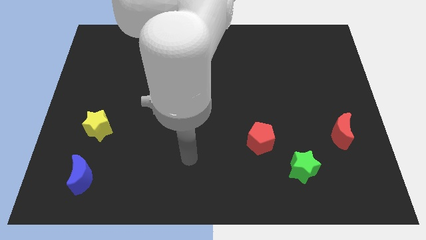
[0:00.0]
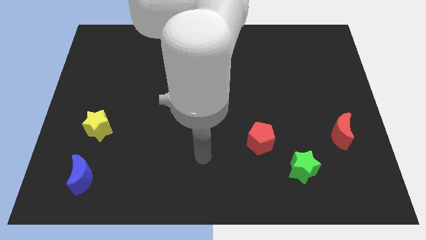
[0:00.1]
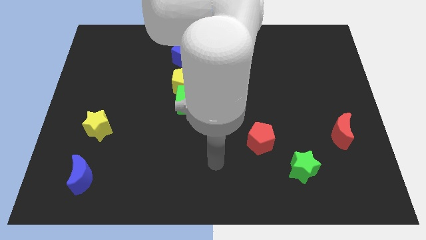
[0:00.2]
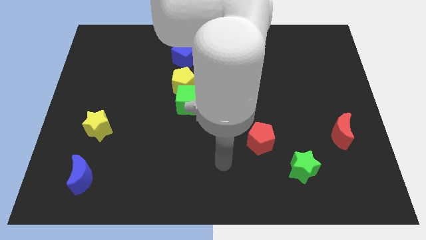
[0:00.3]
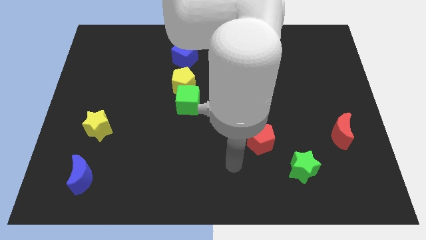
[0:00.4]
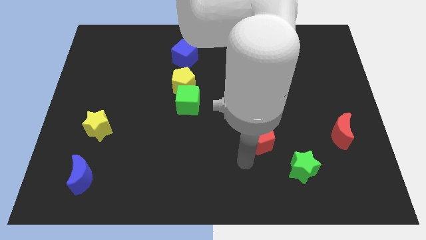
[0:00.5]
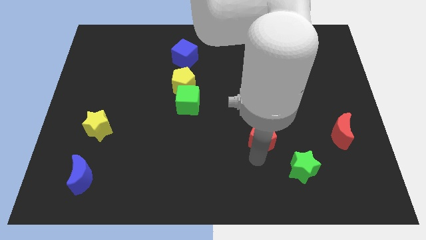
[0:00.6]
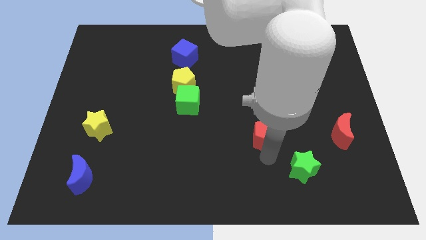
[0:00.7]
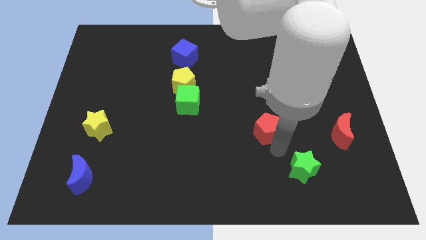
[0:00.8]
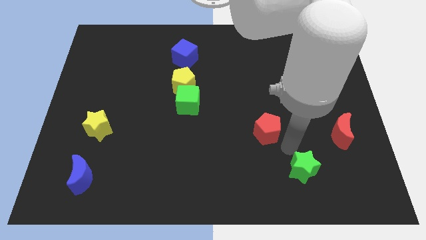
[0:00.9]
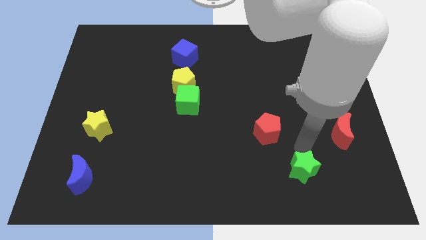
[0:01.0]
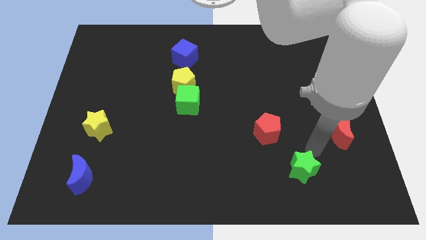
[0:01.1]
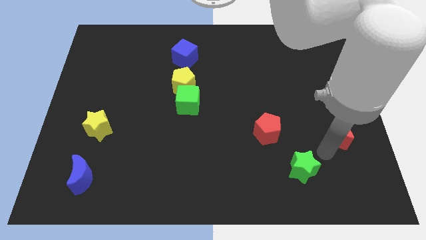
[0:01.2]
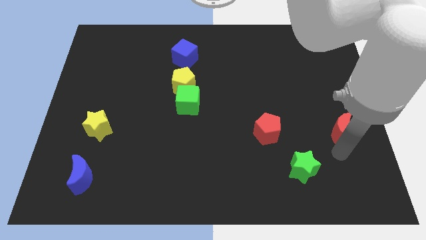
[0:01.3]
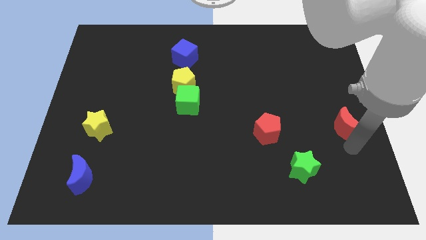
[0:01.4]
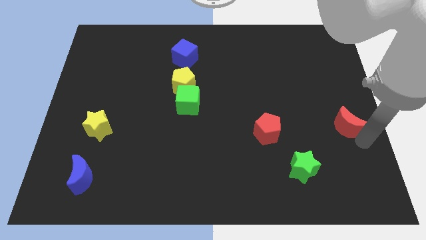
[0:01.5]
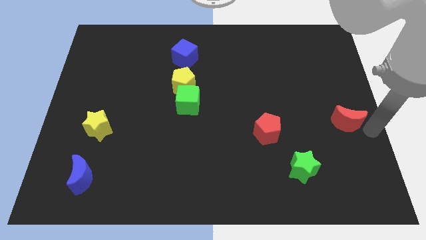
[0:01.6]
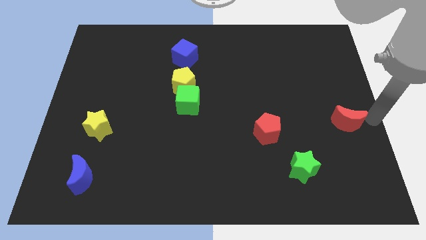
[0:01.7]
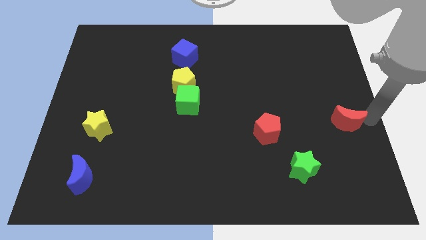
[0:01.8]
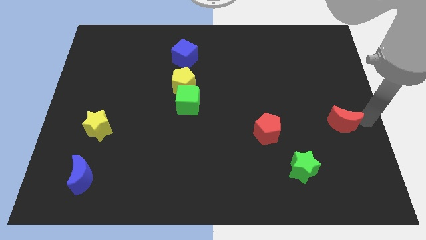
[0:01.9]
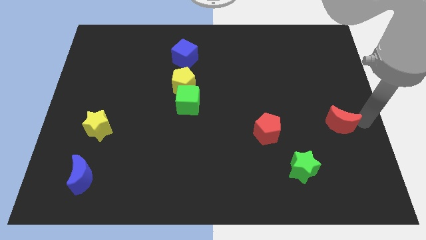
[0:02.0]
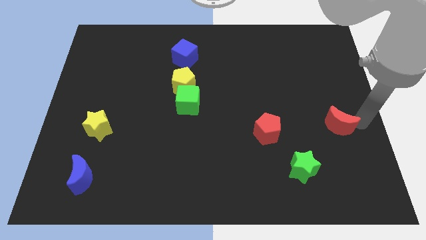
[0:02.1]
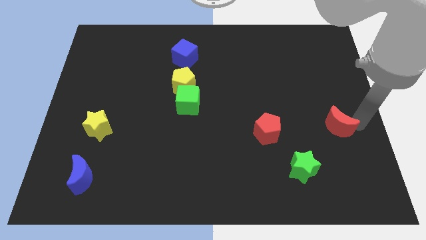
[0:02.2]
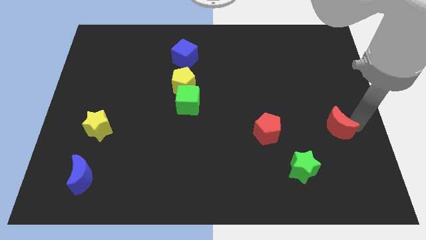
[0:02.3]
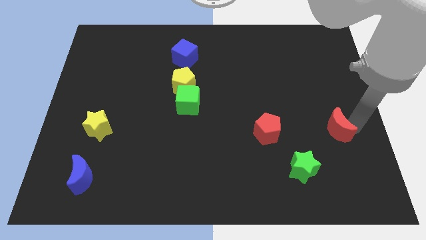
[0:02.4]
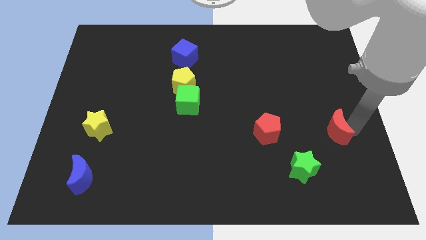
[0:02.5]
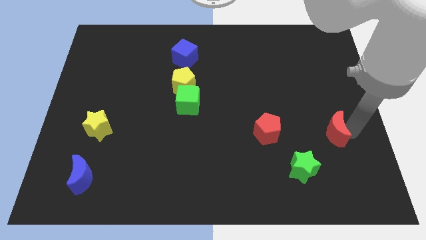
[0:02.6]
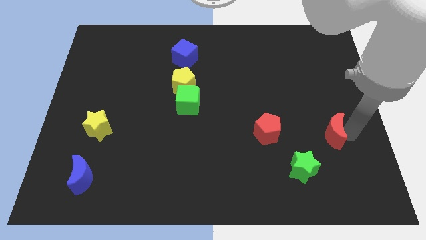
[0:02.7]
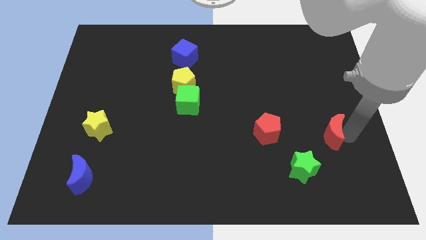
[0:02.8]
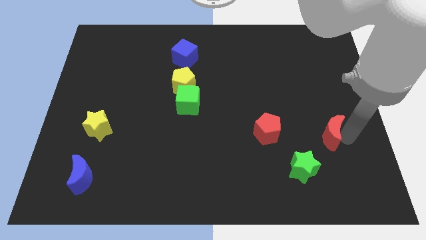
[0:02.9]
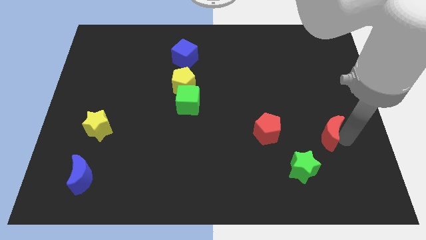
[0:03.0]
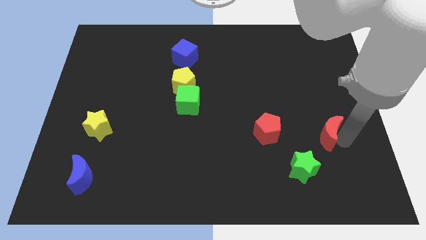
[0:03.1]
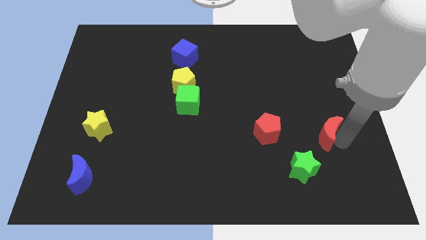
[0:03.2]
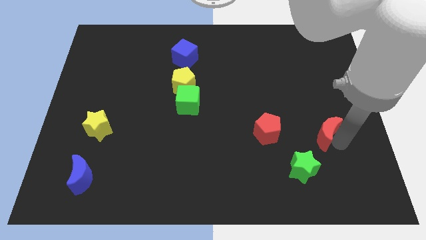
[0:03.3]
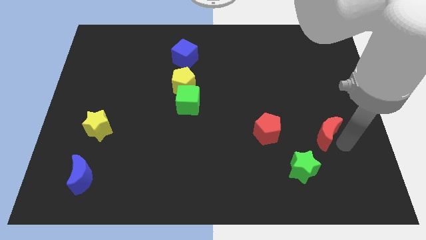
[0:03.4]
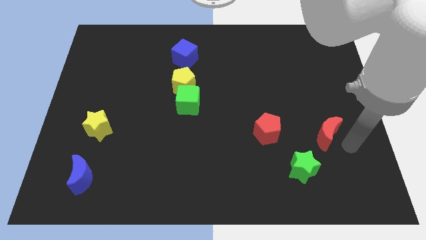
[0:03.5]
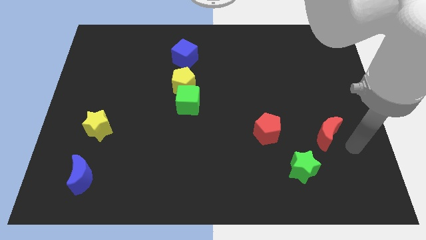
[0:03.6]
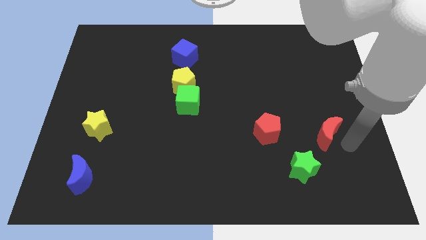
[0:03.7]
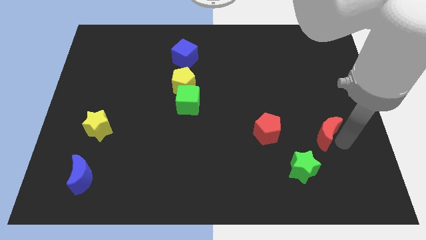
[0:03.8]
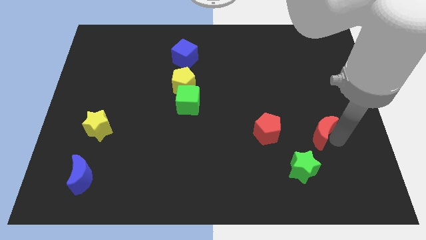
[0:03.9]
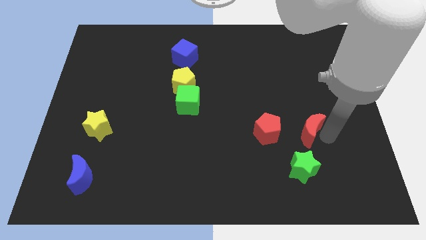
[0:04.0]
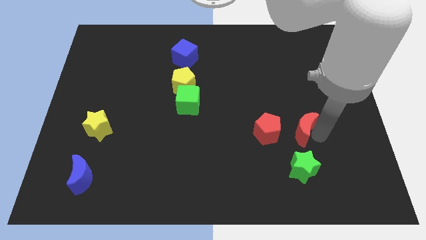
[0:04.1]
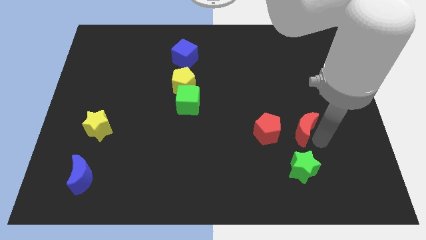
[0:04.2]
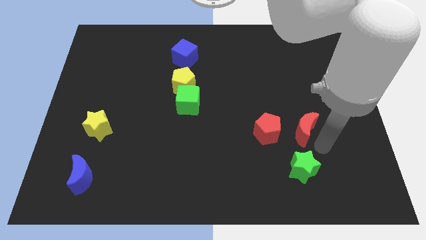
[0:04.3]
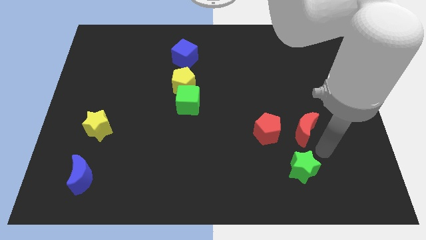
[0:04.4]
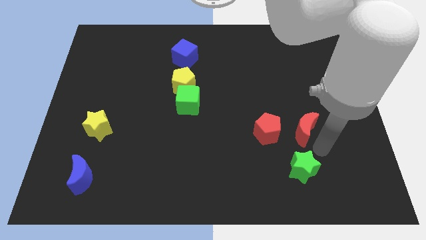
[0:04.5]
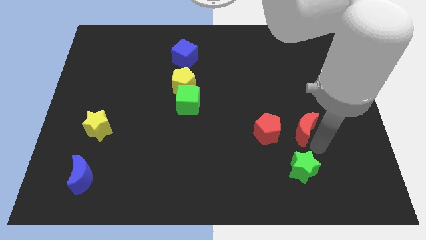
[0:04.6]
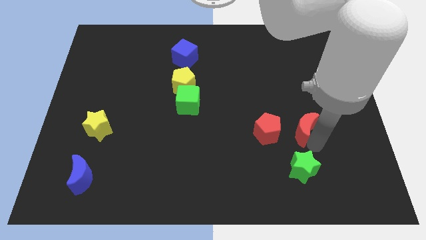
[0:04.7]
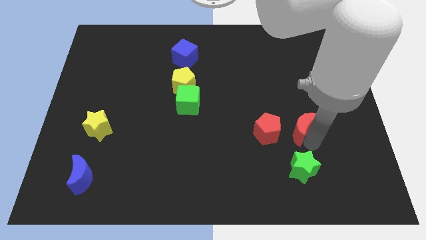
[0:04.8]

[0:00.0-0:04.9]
slide the red moon to the top right side of the red pentagon

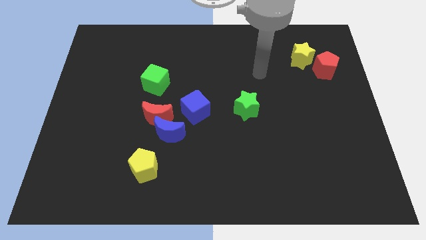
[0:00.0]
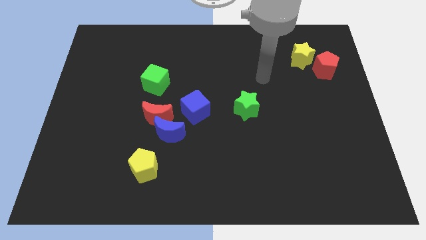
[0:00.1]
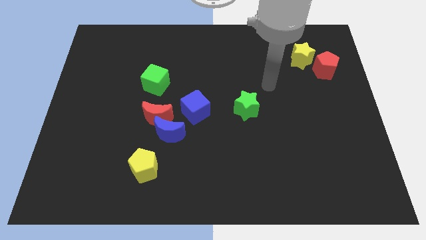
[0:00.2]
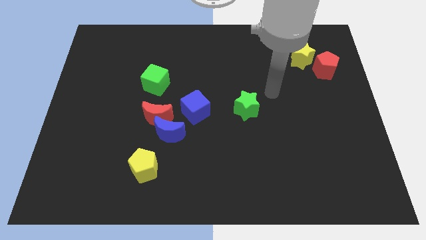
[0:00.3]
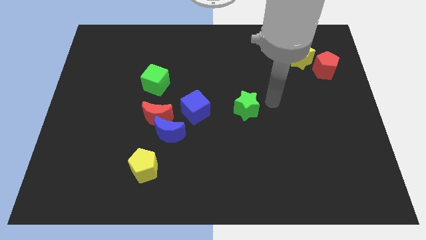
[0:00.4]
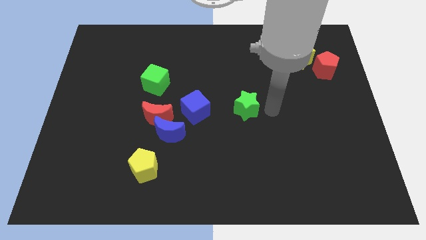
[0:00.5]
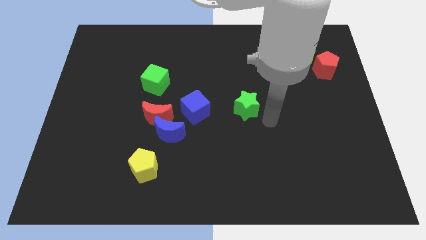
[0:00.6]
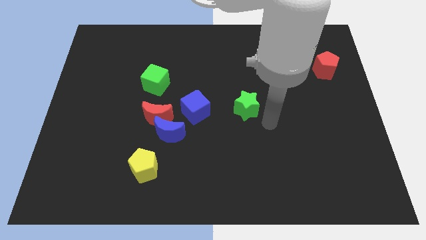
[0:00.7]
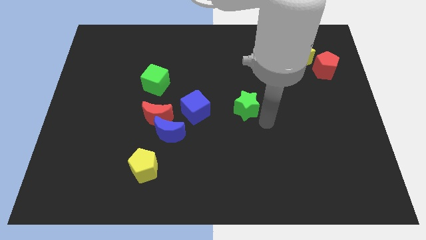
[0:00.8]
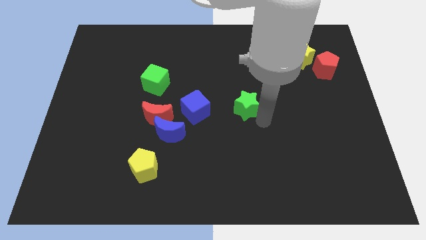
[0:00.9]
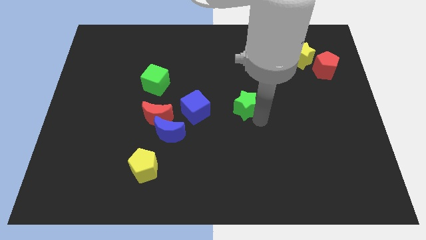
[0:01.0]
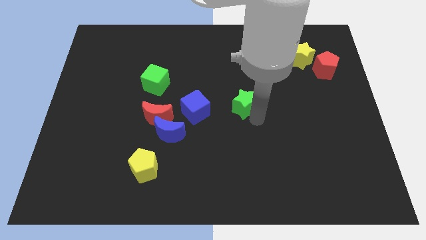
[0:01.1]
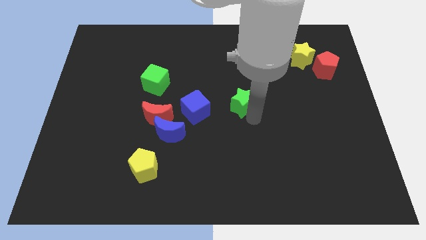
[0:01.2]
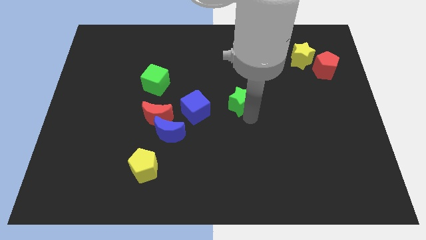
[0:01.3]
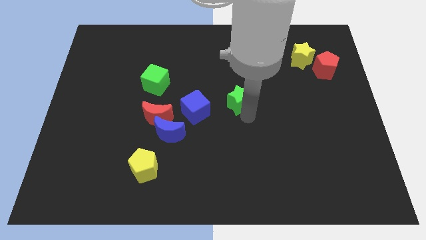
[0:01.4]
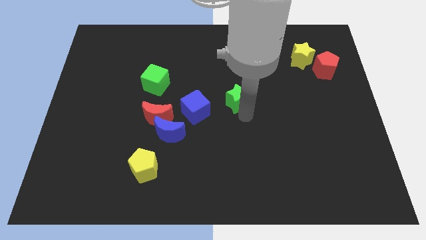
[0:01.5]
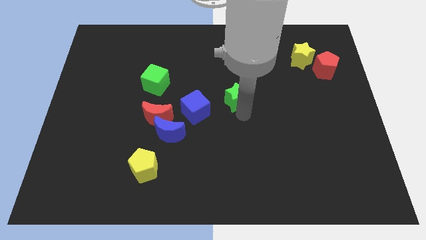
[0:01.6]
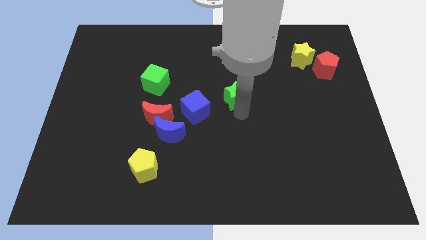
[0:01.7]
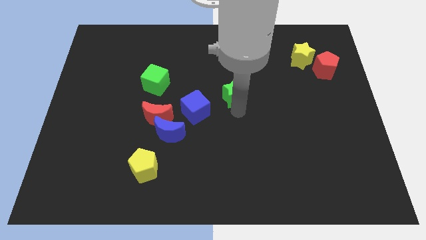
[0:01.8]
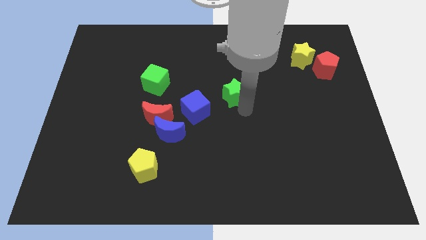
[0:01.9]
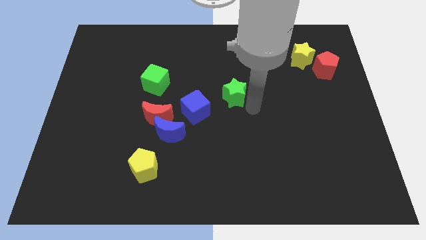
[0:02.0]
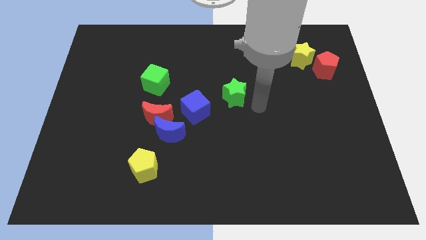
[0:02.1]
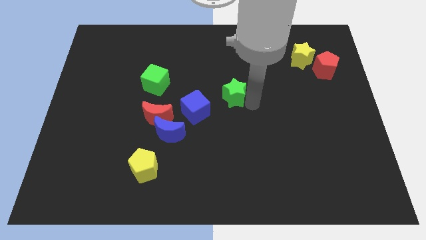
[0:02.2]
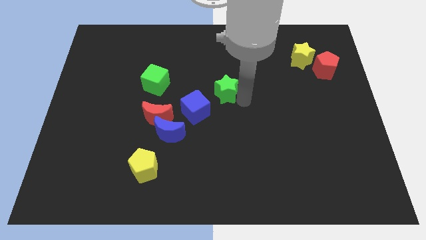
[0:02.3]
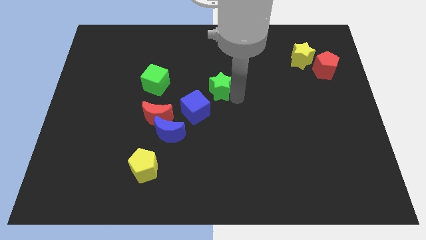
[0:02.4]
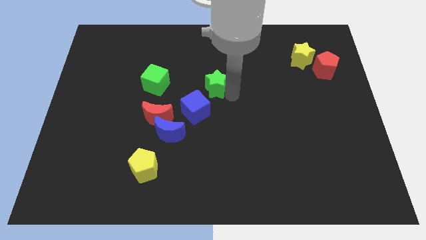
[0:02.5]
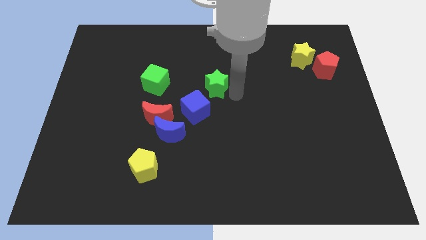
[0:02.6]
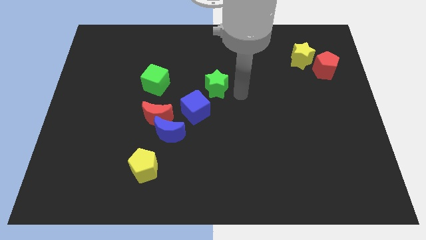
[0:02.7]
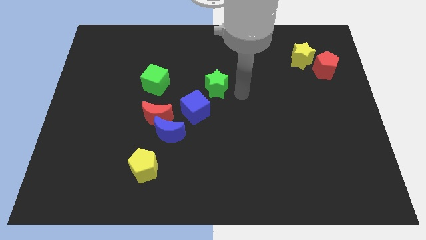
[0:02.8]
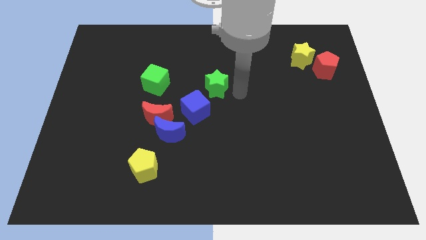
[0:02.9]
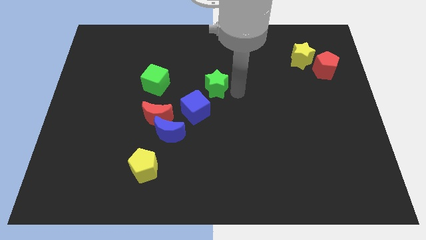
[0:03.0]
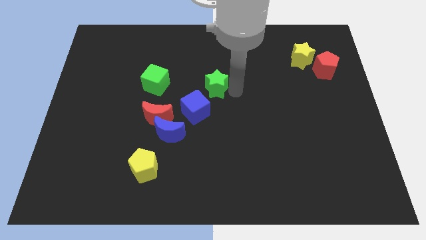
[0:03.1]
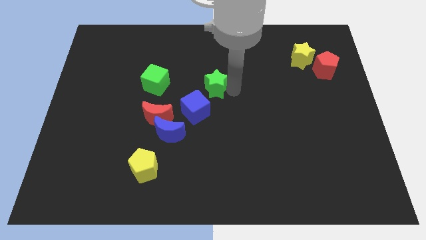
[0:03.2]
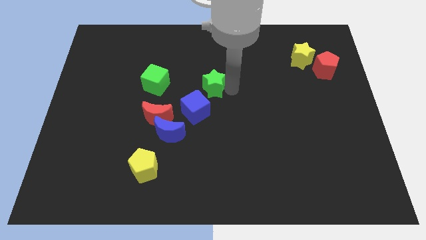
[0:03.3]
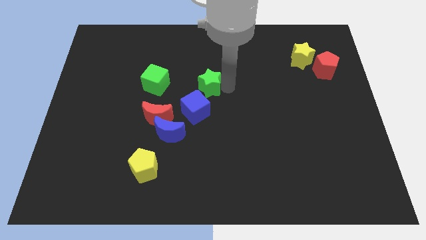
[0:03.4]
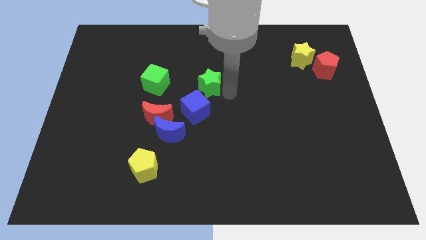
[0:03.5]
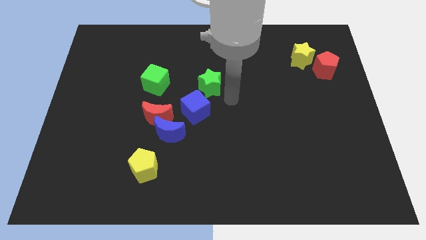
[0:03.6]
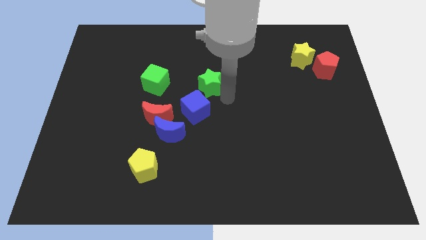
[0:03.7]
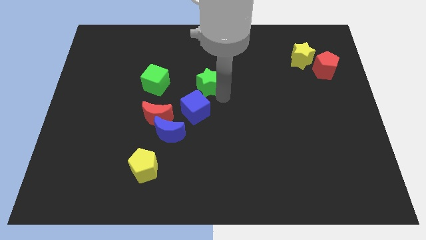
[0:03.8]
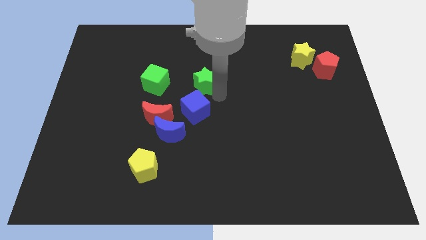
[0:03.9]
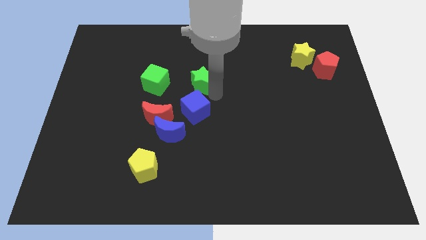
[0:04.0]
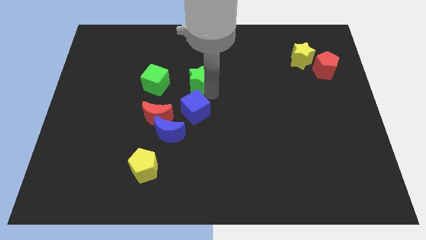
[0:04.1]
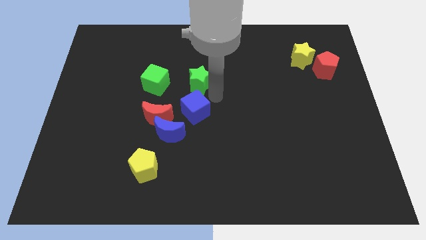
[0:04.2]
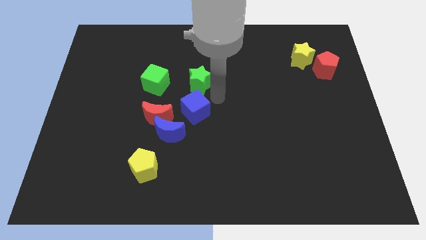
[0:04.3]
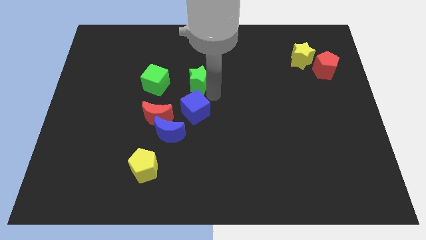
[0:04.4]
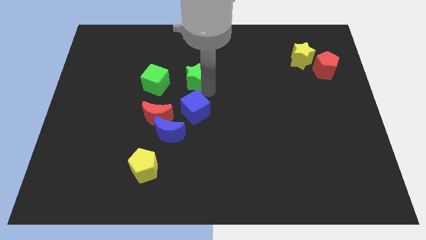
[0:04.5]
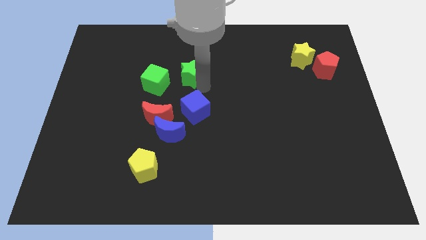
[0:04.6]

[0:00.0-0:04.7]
push the green star to the top right of the green cube
